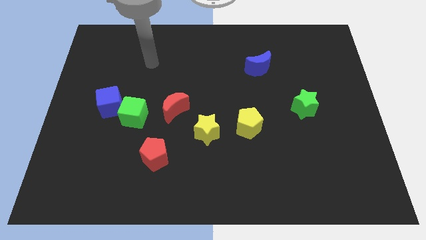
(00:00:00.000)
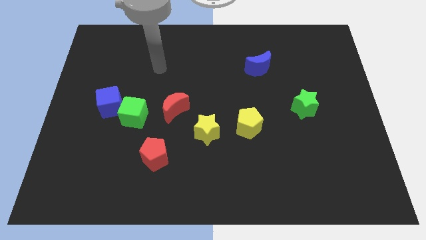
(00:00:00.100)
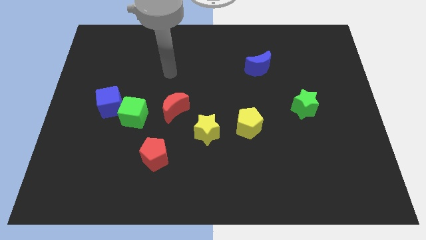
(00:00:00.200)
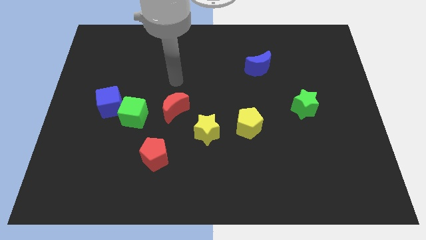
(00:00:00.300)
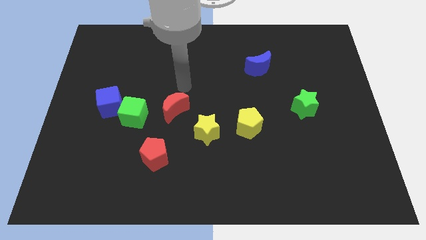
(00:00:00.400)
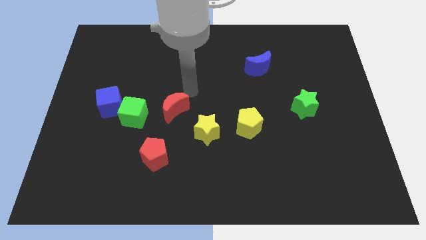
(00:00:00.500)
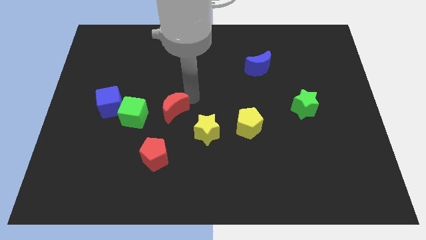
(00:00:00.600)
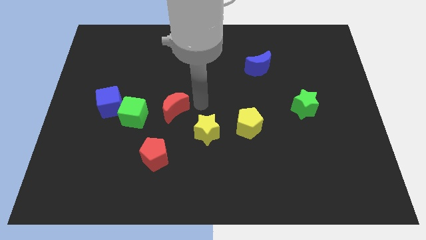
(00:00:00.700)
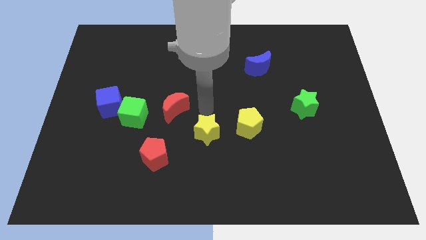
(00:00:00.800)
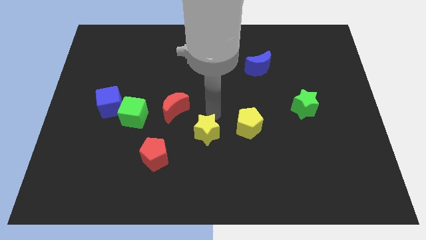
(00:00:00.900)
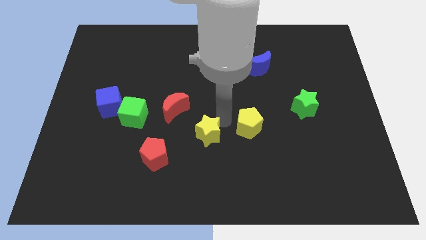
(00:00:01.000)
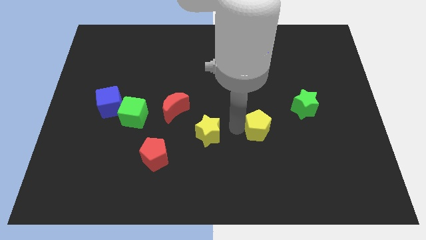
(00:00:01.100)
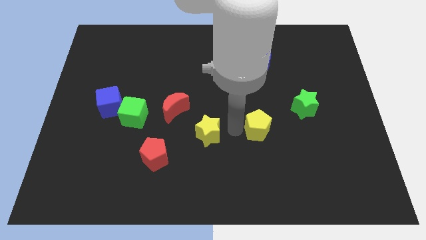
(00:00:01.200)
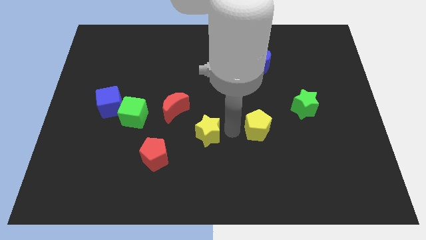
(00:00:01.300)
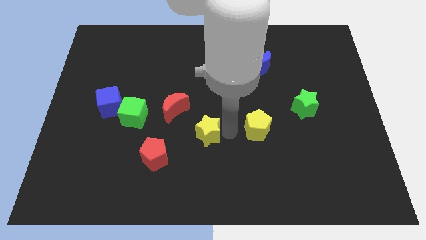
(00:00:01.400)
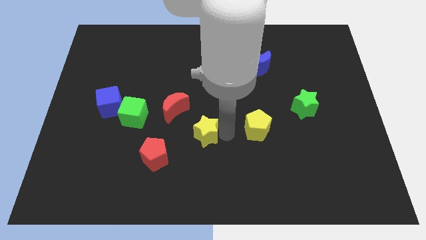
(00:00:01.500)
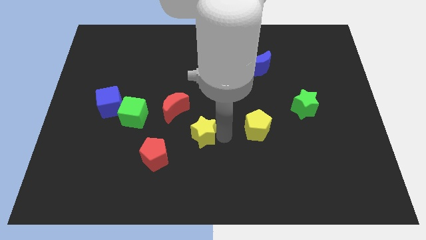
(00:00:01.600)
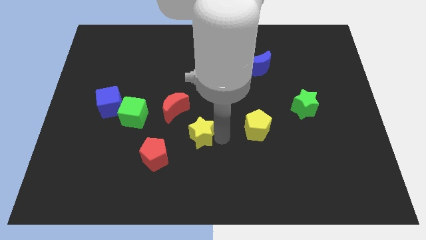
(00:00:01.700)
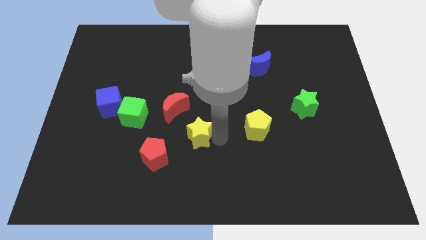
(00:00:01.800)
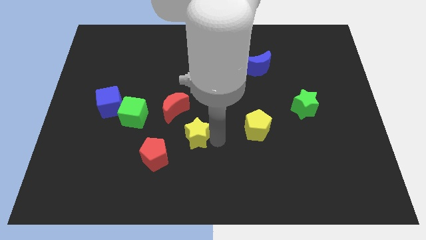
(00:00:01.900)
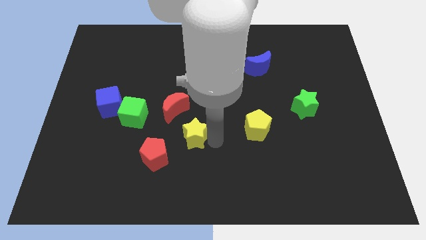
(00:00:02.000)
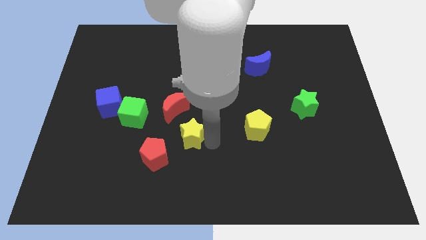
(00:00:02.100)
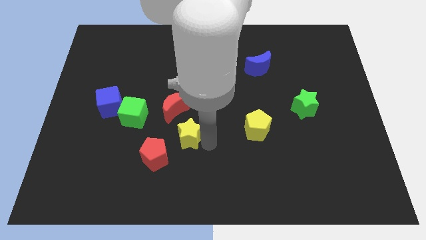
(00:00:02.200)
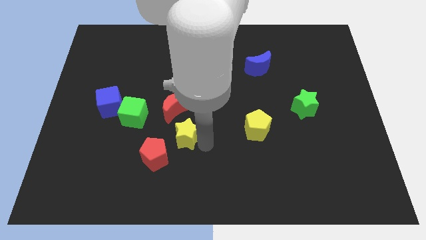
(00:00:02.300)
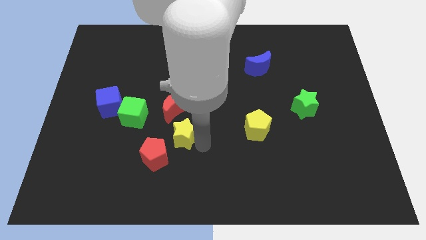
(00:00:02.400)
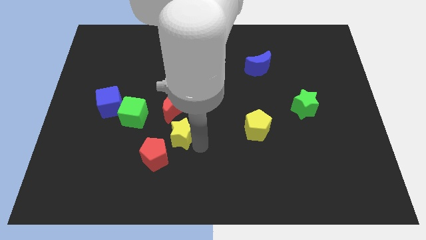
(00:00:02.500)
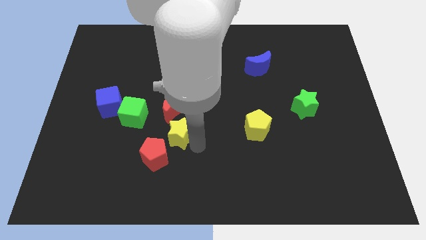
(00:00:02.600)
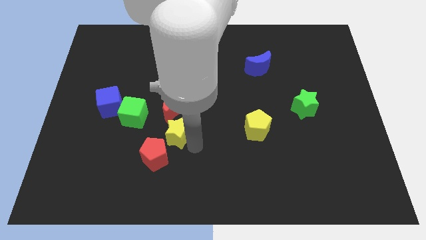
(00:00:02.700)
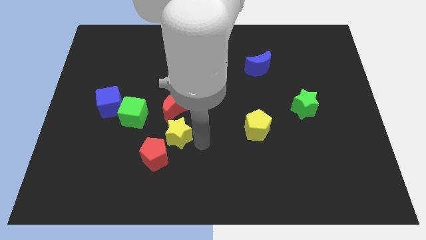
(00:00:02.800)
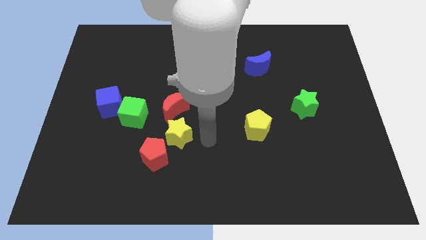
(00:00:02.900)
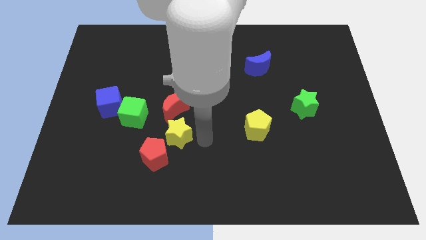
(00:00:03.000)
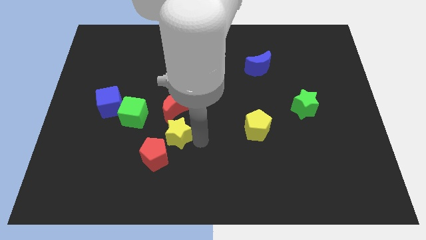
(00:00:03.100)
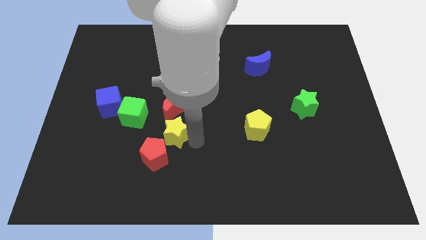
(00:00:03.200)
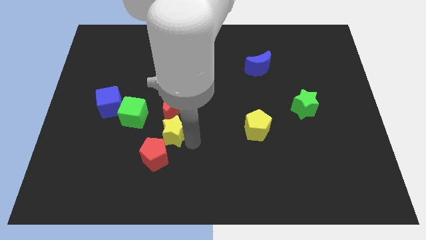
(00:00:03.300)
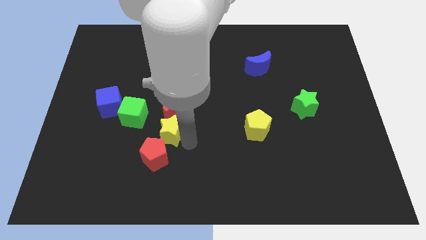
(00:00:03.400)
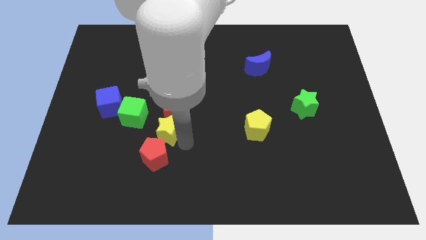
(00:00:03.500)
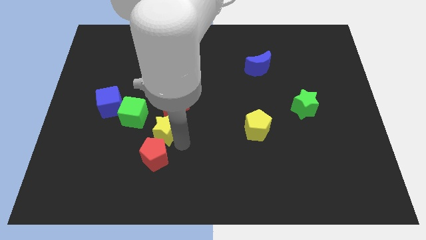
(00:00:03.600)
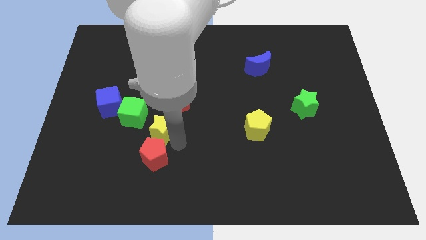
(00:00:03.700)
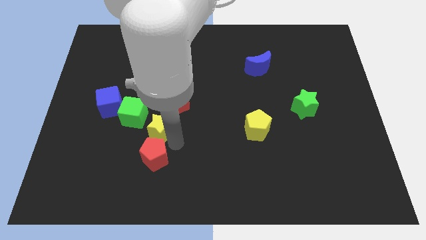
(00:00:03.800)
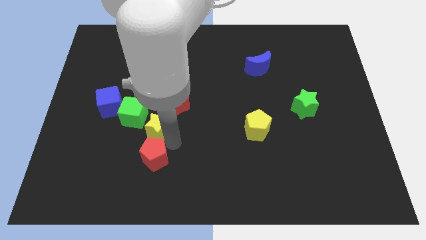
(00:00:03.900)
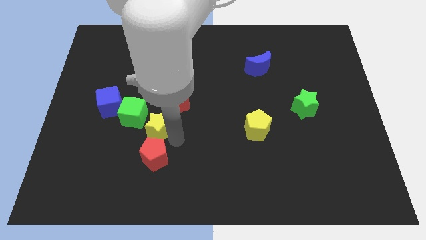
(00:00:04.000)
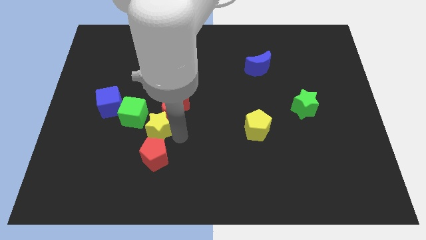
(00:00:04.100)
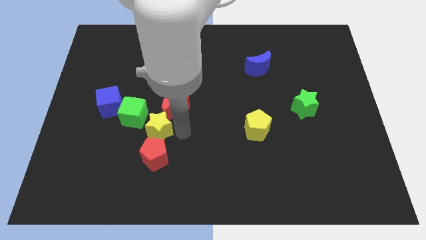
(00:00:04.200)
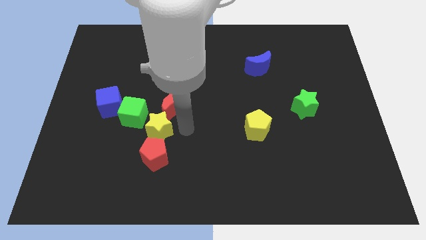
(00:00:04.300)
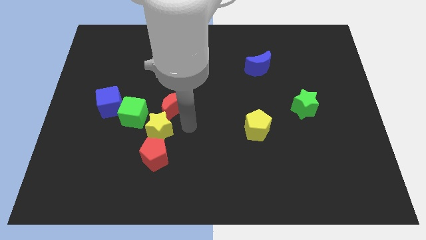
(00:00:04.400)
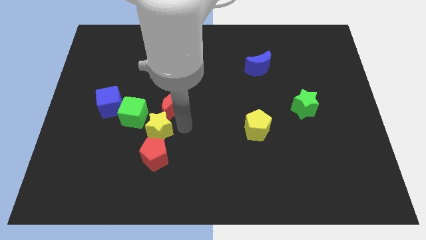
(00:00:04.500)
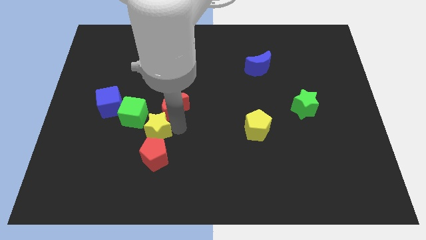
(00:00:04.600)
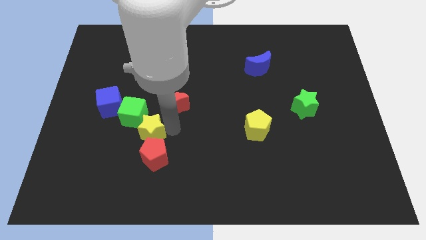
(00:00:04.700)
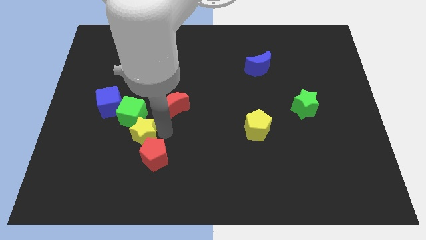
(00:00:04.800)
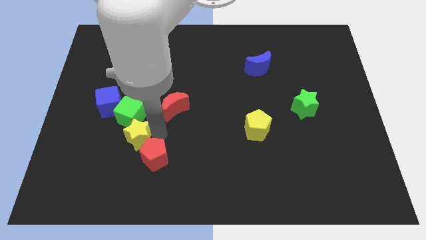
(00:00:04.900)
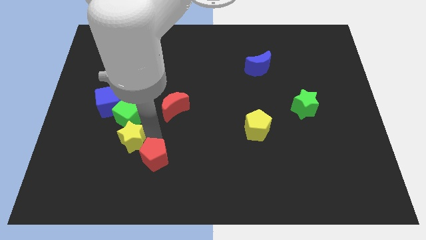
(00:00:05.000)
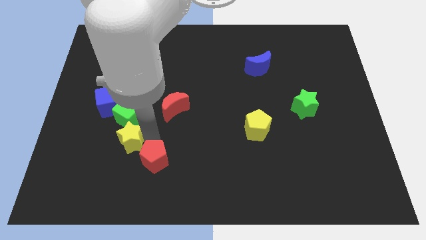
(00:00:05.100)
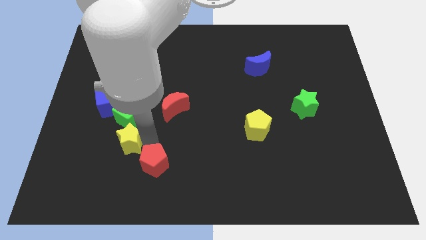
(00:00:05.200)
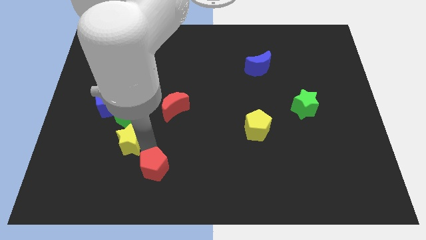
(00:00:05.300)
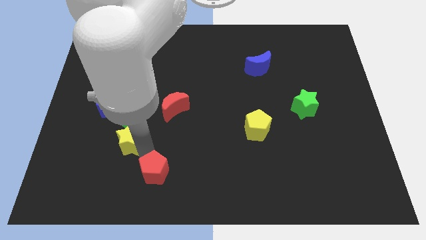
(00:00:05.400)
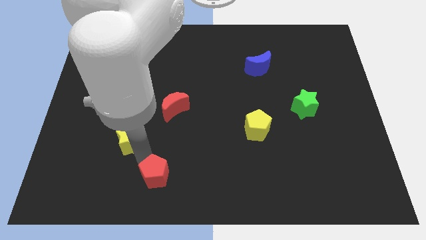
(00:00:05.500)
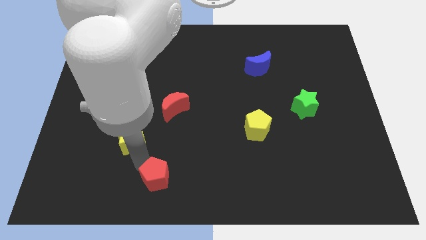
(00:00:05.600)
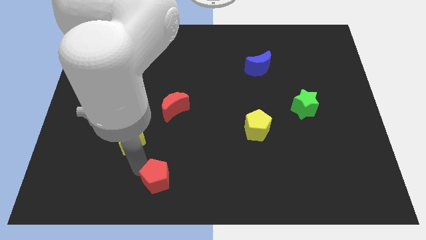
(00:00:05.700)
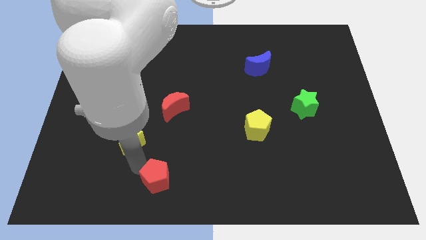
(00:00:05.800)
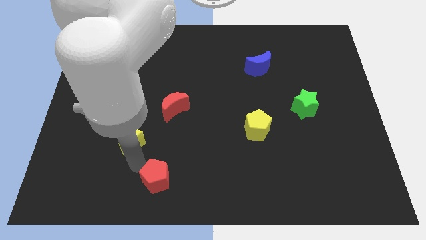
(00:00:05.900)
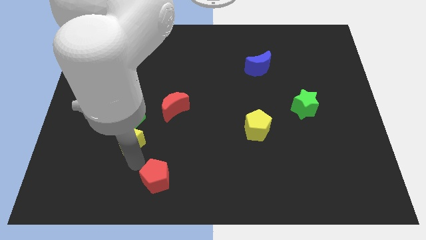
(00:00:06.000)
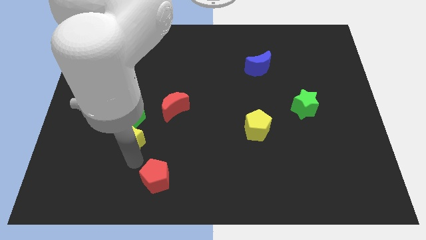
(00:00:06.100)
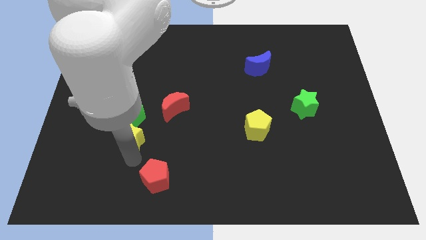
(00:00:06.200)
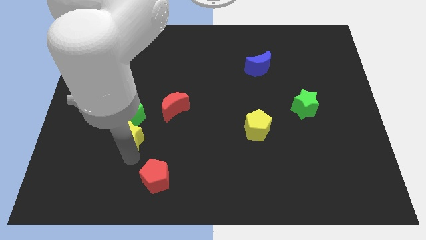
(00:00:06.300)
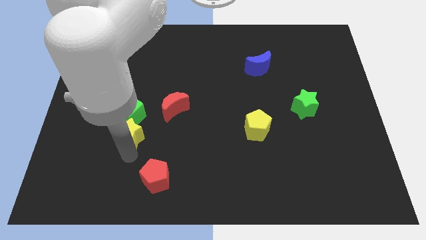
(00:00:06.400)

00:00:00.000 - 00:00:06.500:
put the yellow star to the bottom left side of the green cube

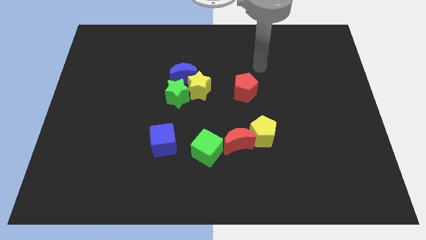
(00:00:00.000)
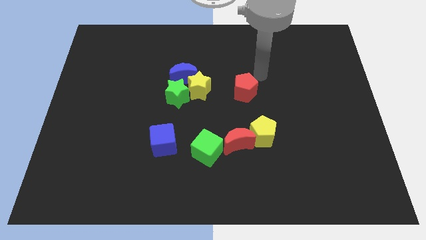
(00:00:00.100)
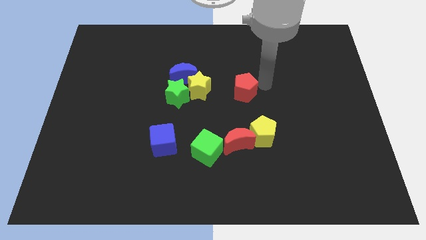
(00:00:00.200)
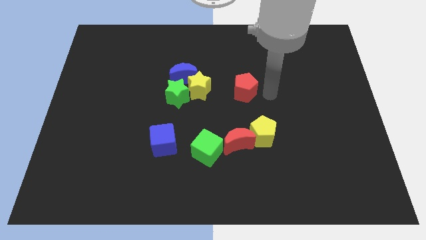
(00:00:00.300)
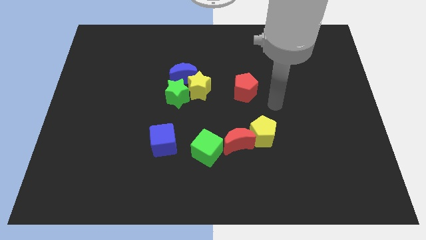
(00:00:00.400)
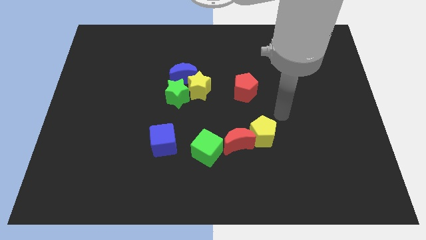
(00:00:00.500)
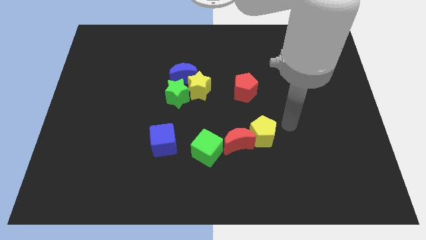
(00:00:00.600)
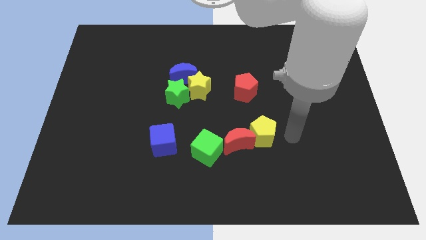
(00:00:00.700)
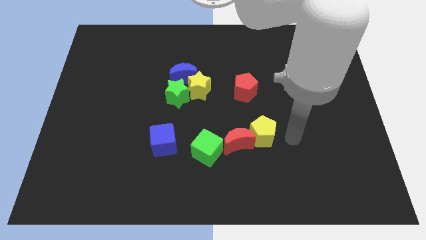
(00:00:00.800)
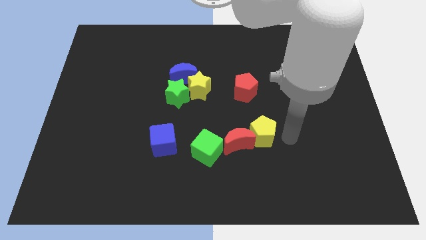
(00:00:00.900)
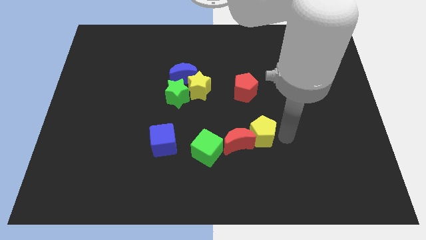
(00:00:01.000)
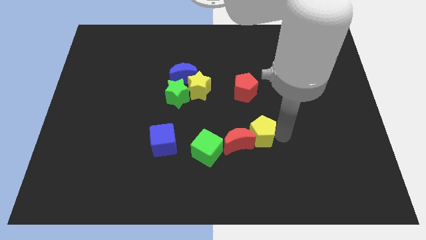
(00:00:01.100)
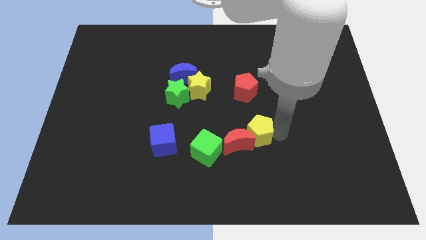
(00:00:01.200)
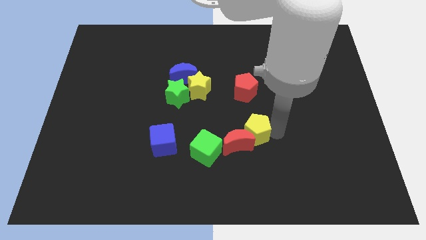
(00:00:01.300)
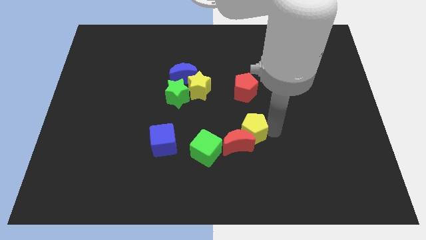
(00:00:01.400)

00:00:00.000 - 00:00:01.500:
move the yellow pentagon to the top right side of the green cube
